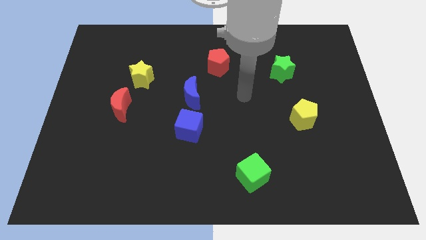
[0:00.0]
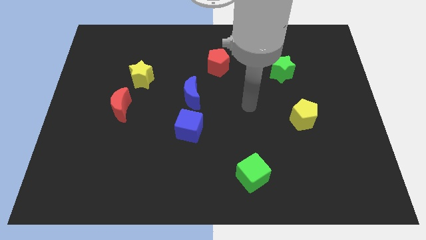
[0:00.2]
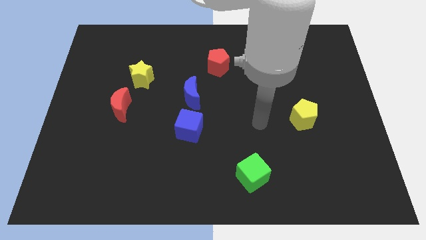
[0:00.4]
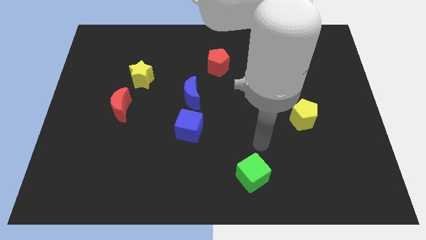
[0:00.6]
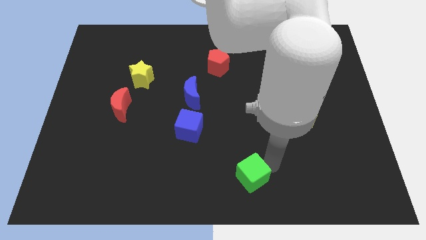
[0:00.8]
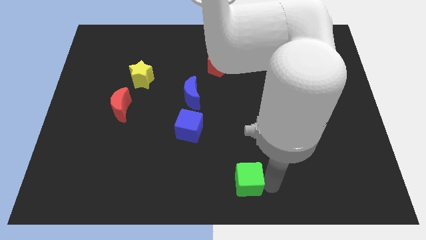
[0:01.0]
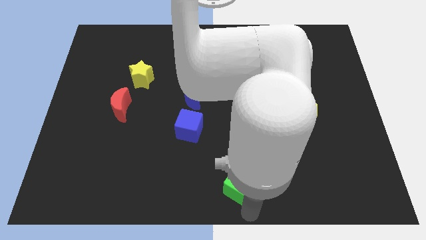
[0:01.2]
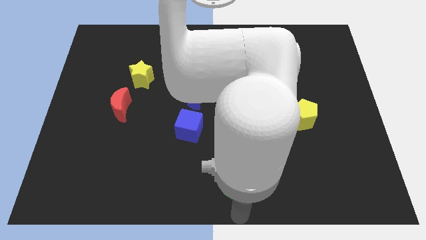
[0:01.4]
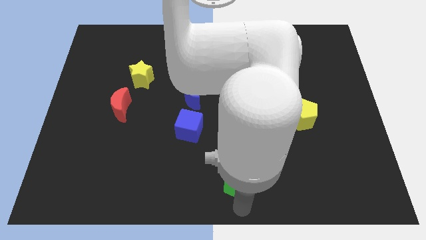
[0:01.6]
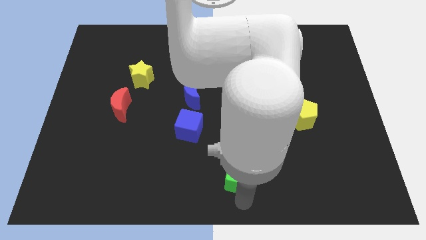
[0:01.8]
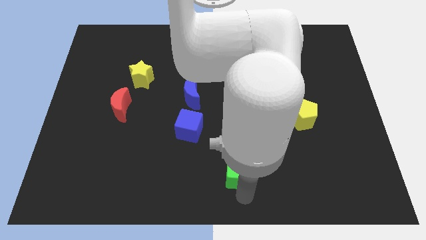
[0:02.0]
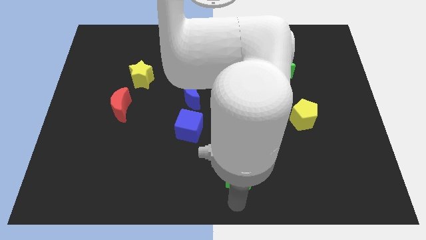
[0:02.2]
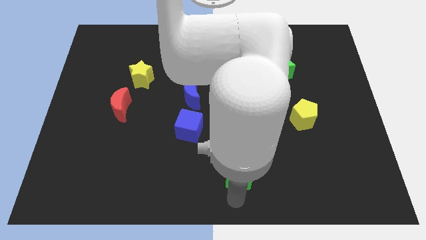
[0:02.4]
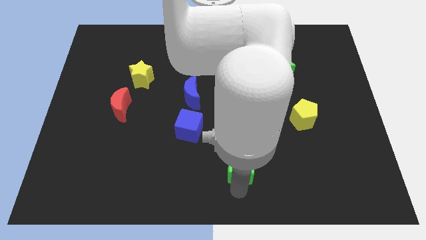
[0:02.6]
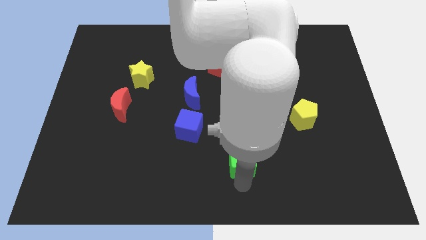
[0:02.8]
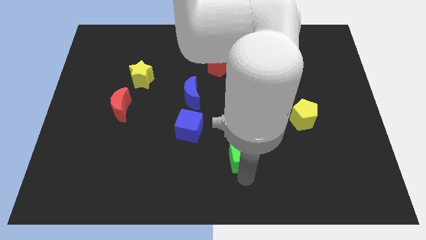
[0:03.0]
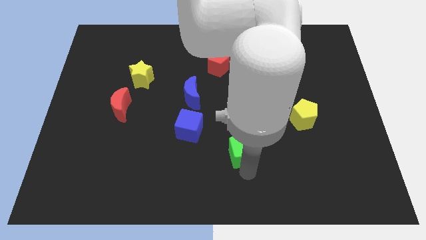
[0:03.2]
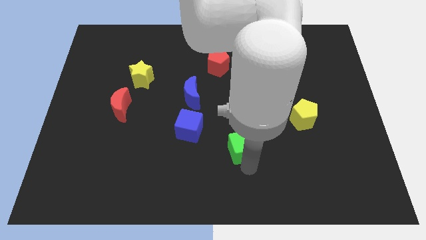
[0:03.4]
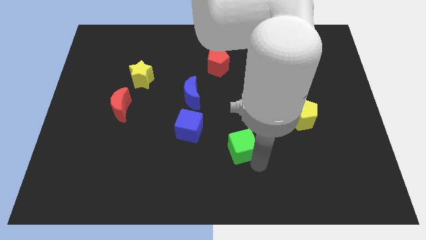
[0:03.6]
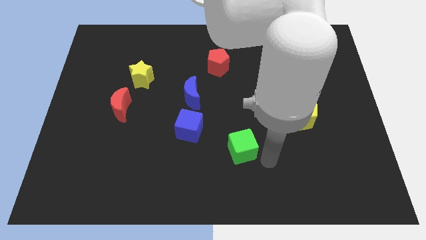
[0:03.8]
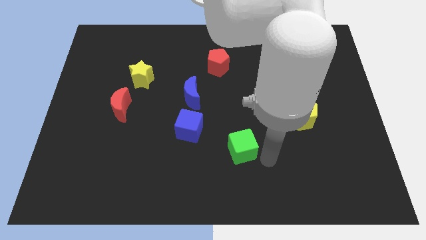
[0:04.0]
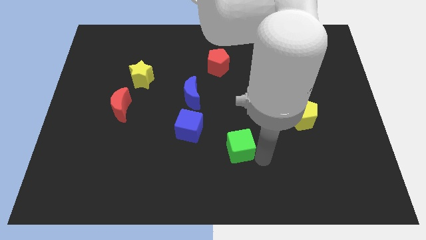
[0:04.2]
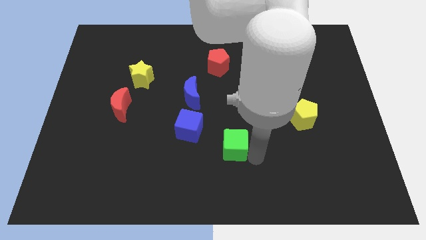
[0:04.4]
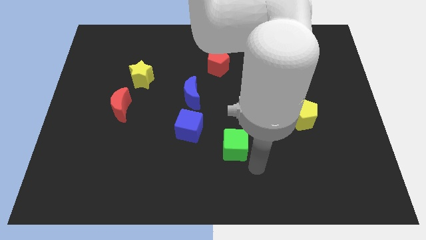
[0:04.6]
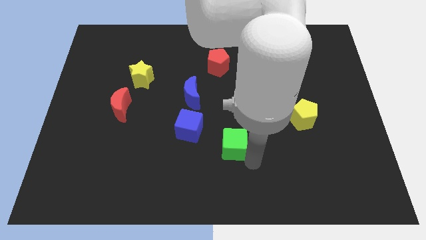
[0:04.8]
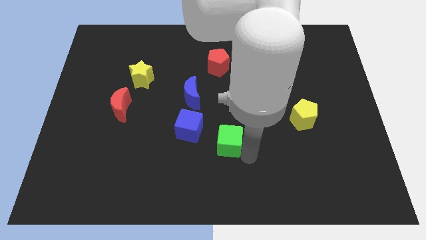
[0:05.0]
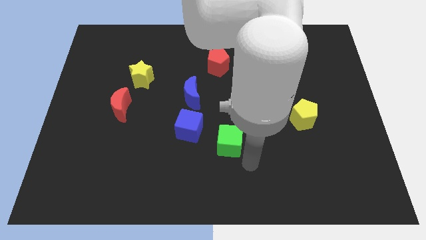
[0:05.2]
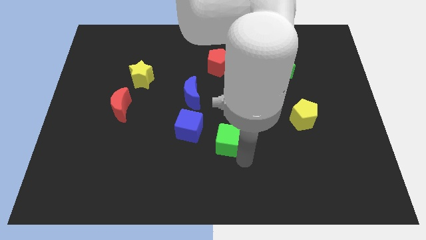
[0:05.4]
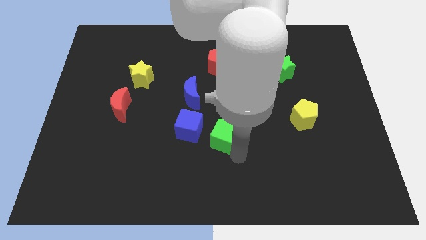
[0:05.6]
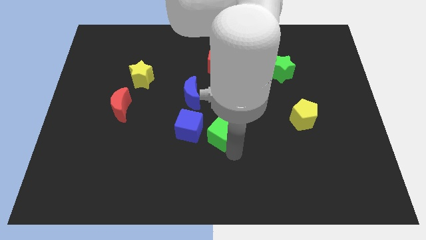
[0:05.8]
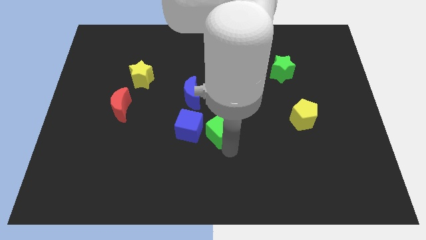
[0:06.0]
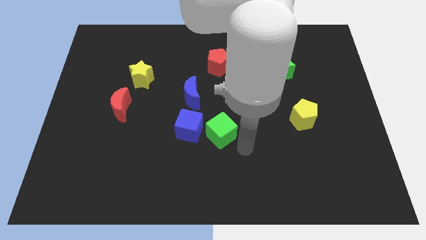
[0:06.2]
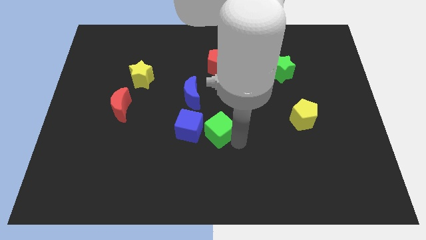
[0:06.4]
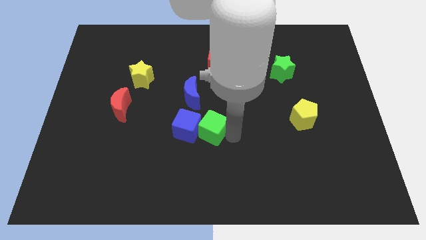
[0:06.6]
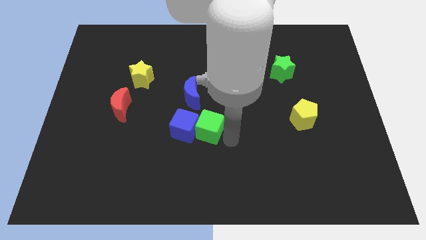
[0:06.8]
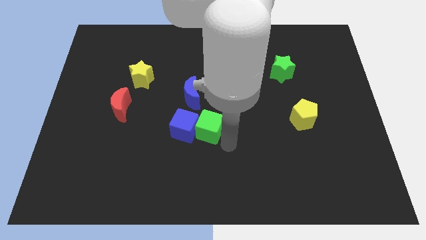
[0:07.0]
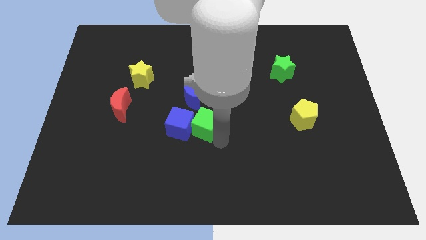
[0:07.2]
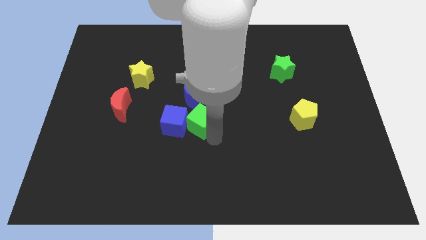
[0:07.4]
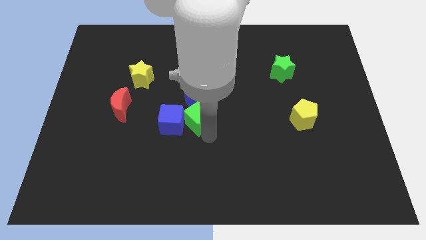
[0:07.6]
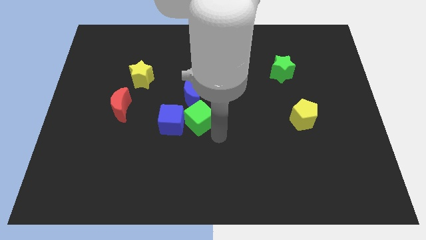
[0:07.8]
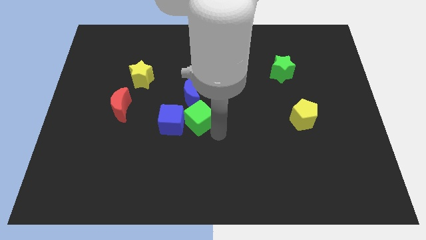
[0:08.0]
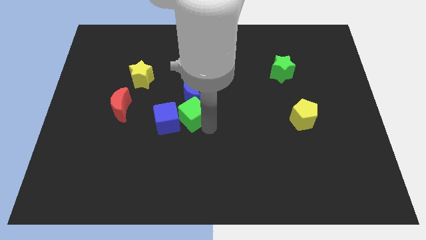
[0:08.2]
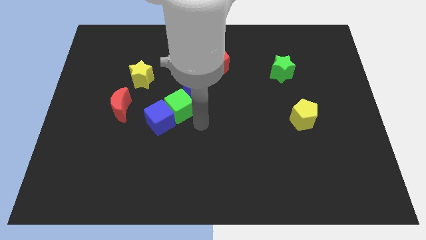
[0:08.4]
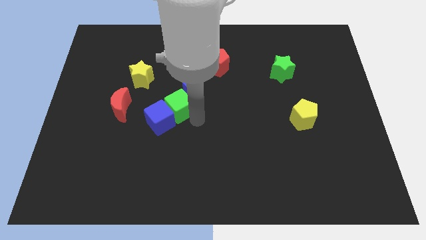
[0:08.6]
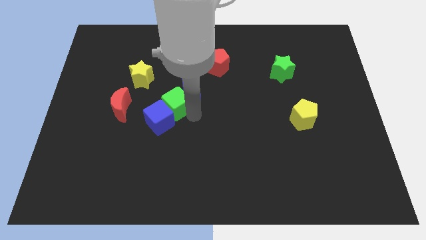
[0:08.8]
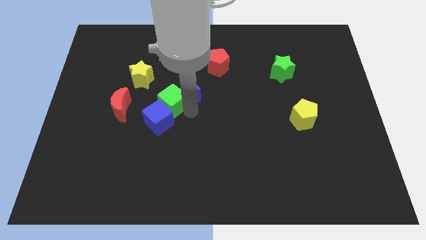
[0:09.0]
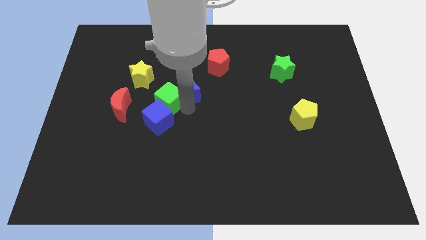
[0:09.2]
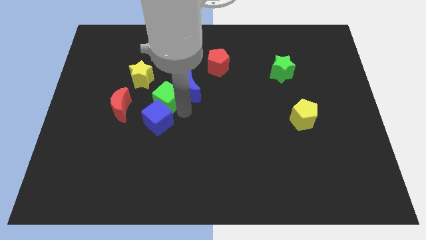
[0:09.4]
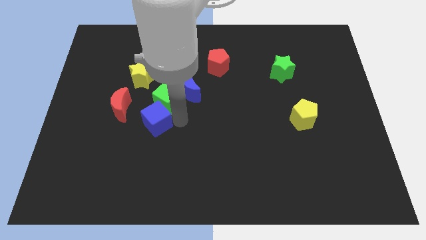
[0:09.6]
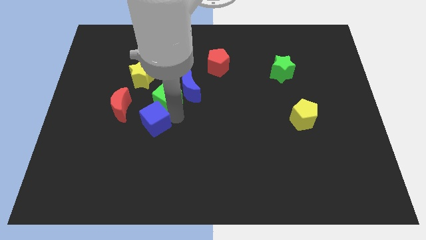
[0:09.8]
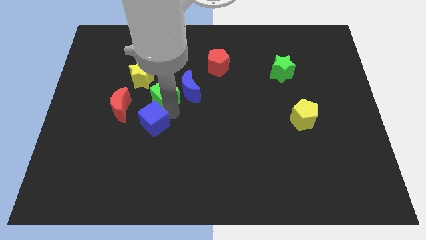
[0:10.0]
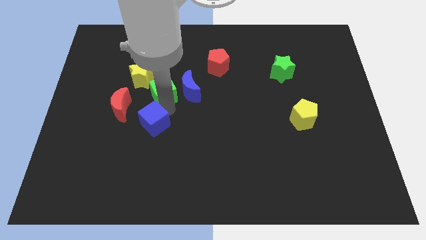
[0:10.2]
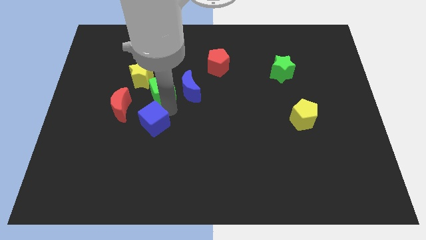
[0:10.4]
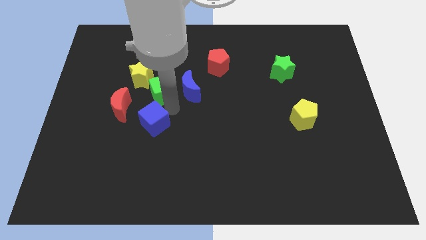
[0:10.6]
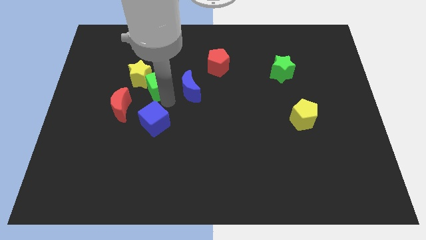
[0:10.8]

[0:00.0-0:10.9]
slide the green cube next to the yellow star

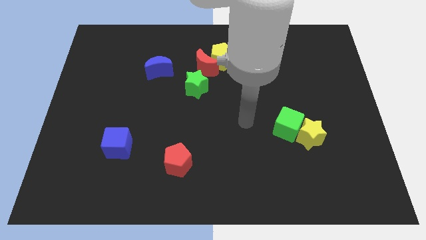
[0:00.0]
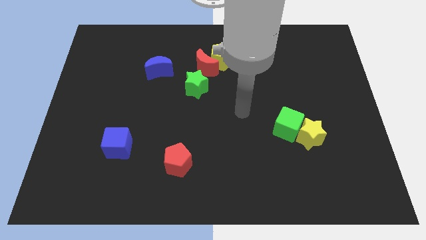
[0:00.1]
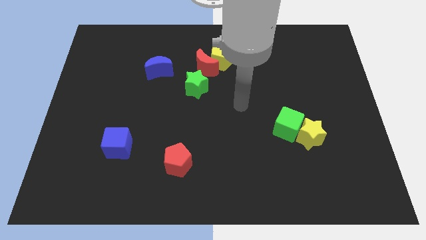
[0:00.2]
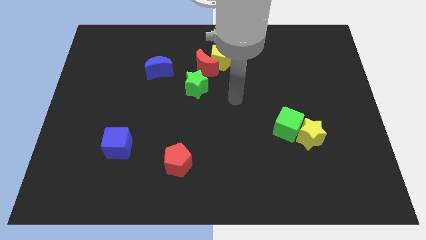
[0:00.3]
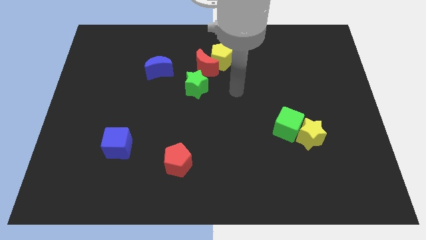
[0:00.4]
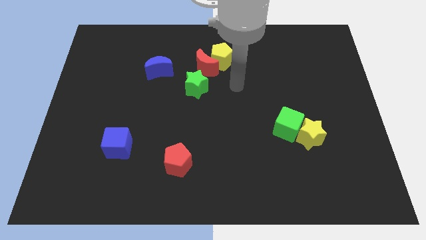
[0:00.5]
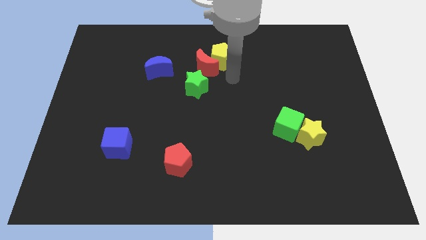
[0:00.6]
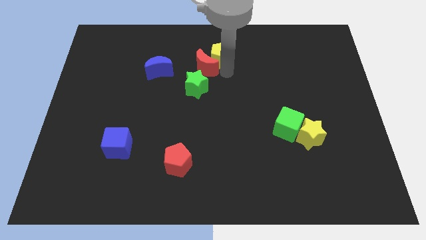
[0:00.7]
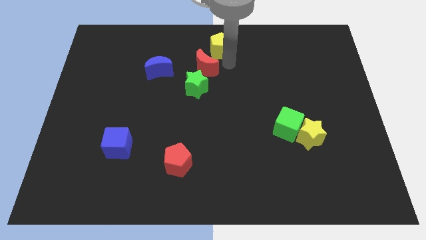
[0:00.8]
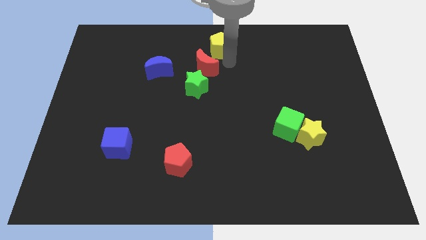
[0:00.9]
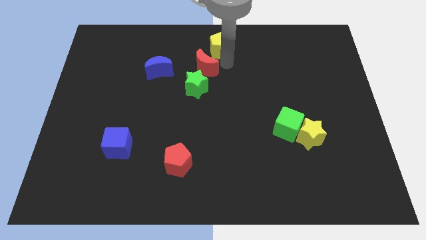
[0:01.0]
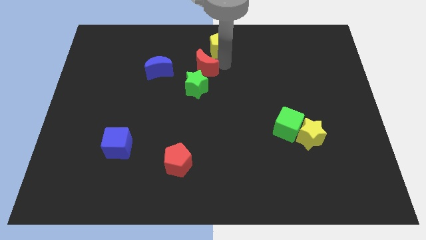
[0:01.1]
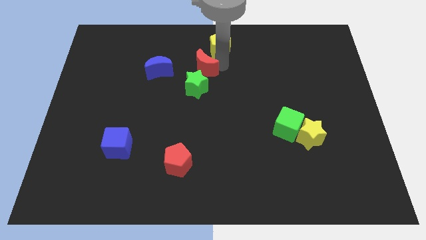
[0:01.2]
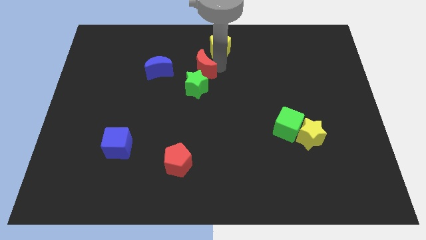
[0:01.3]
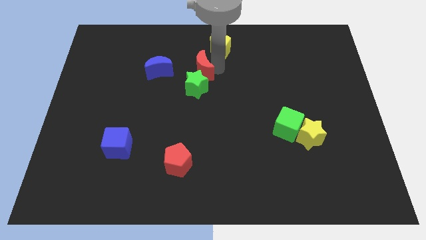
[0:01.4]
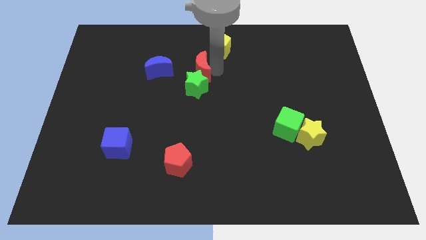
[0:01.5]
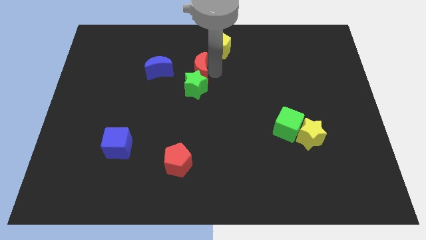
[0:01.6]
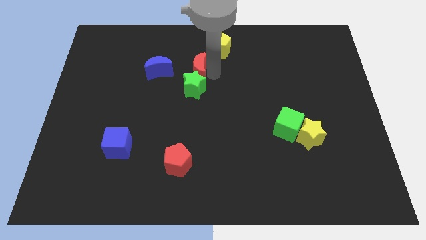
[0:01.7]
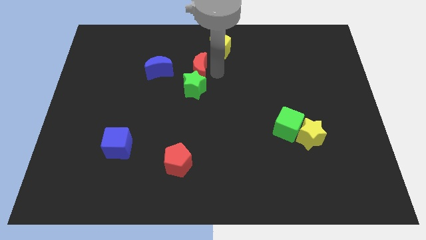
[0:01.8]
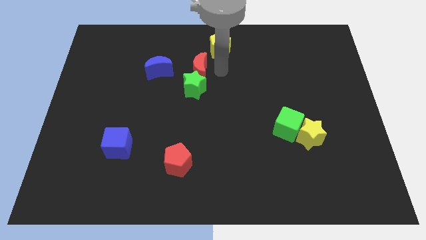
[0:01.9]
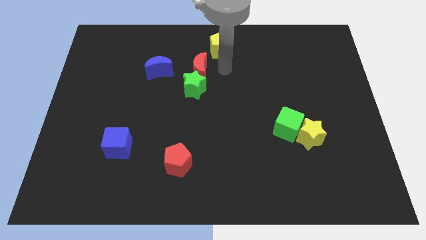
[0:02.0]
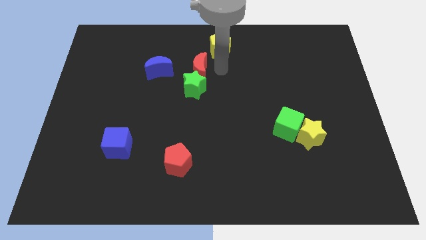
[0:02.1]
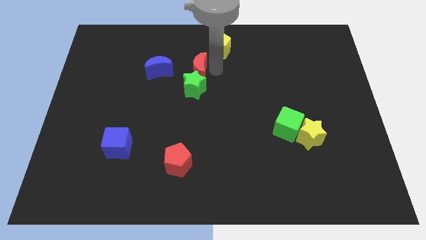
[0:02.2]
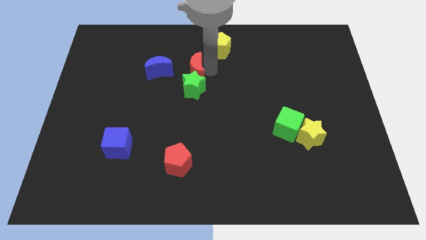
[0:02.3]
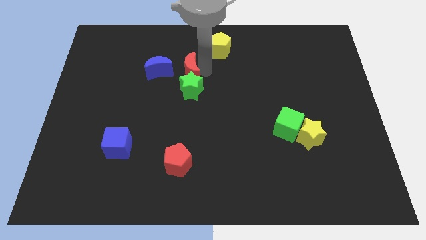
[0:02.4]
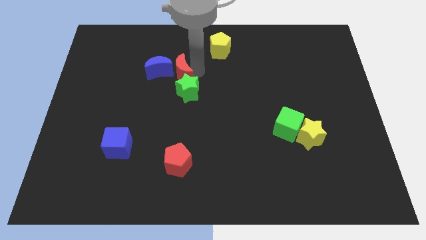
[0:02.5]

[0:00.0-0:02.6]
push the red moon to the blue moon
